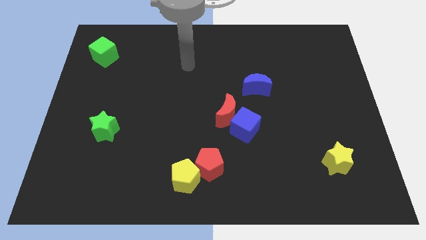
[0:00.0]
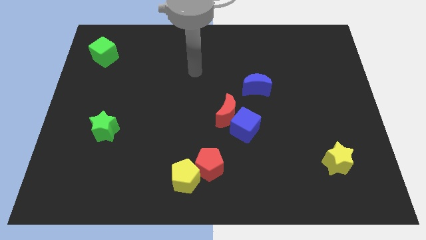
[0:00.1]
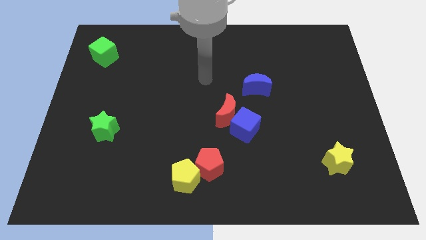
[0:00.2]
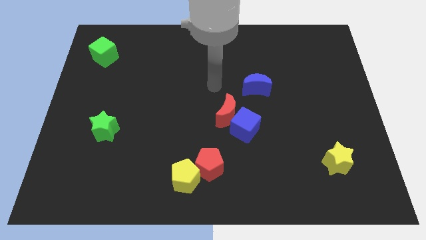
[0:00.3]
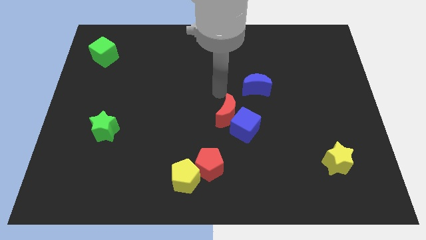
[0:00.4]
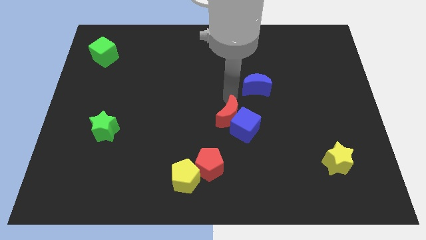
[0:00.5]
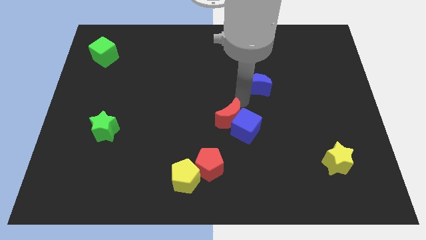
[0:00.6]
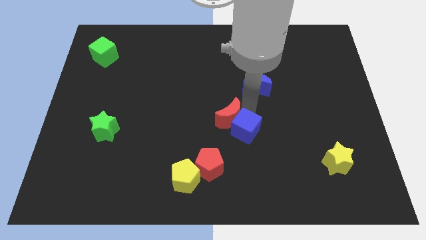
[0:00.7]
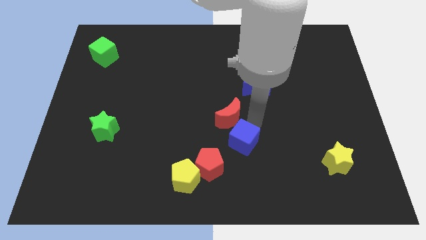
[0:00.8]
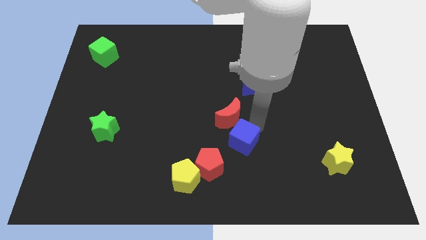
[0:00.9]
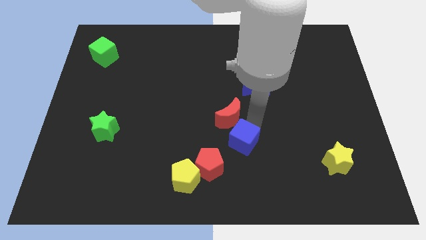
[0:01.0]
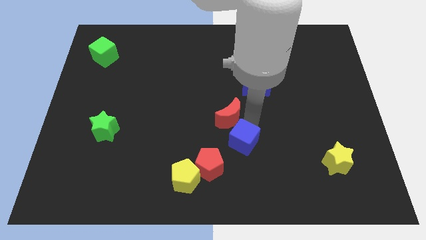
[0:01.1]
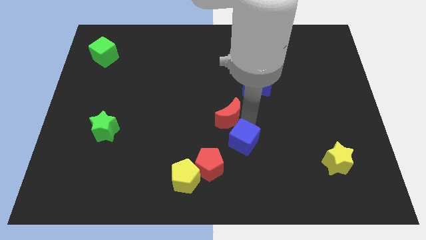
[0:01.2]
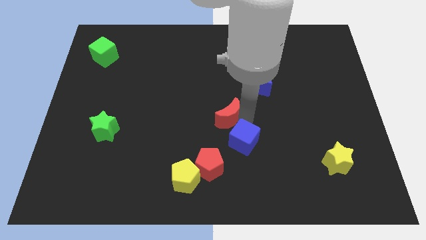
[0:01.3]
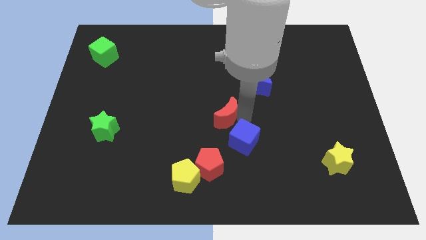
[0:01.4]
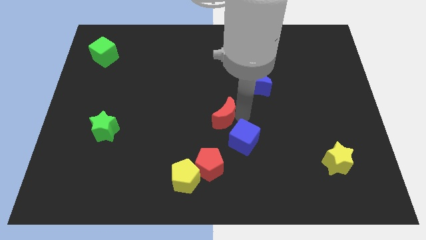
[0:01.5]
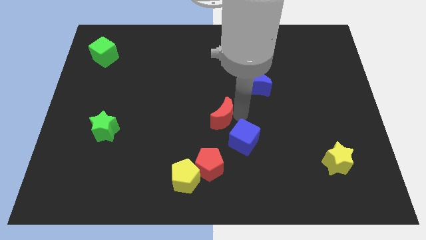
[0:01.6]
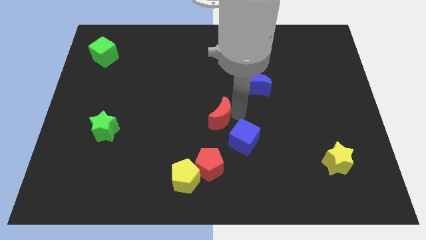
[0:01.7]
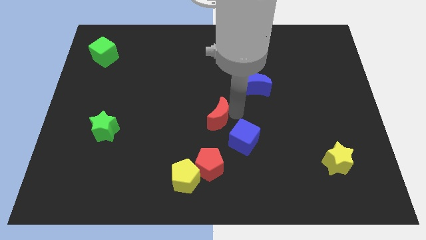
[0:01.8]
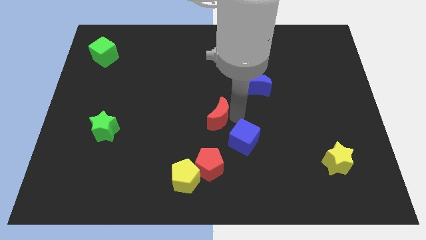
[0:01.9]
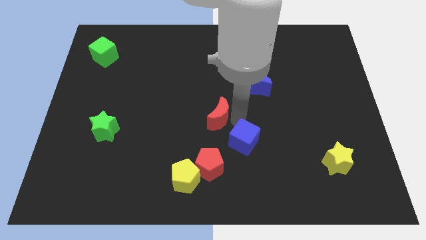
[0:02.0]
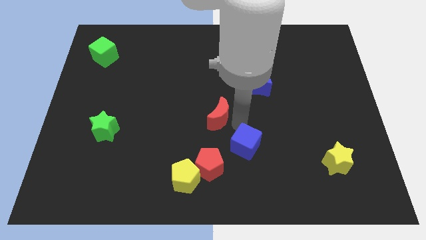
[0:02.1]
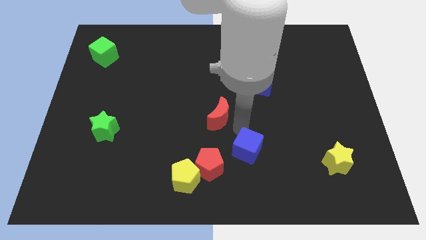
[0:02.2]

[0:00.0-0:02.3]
move the red moon away from the blue cube

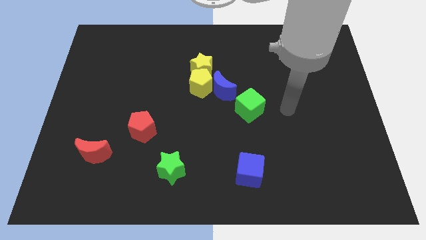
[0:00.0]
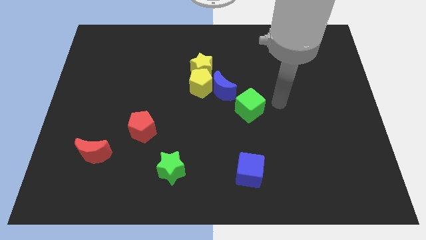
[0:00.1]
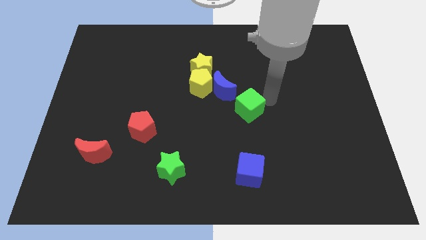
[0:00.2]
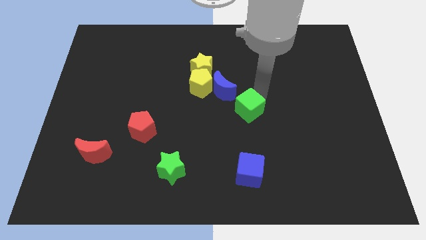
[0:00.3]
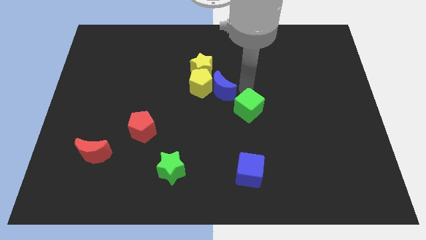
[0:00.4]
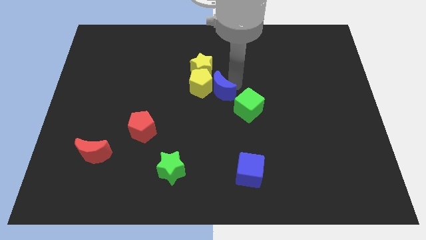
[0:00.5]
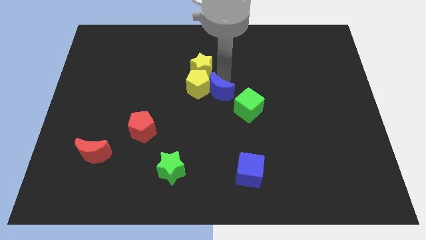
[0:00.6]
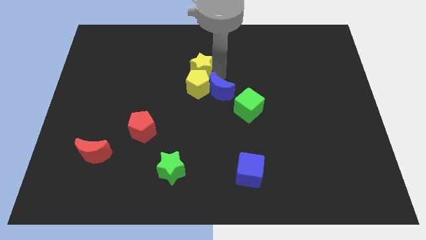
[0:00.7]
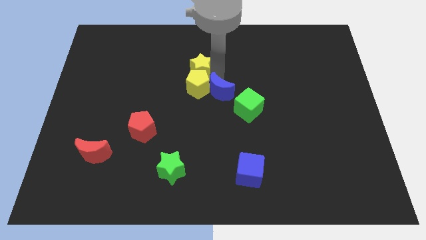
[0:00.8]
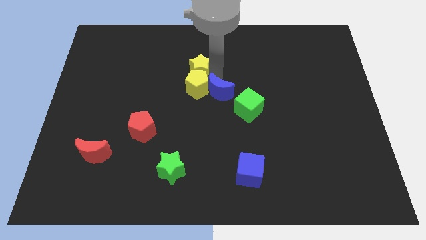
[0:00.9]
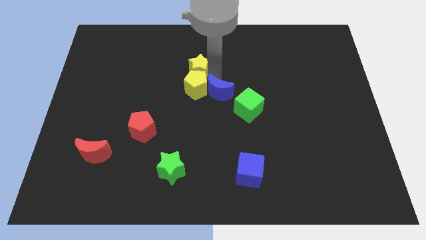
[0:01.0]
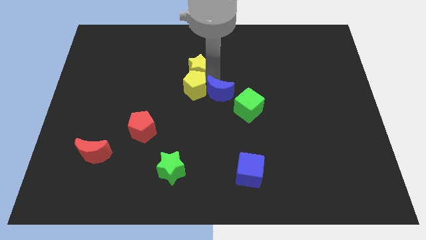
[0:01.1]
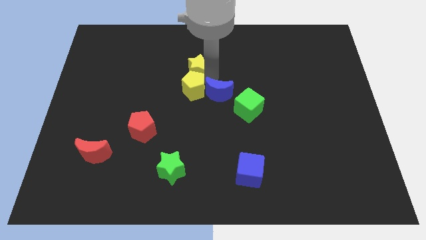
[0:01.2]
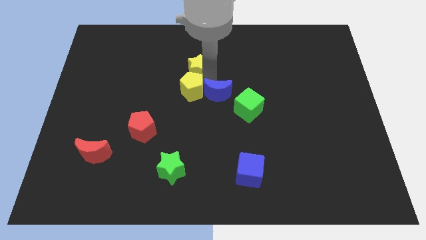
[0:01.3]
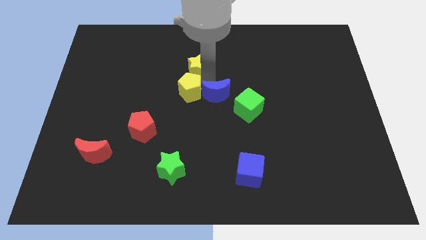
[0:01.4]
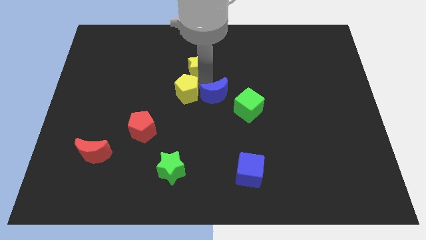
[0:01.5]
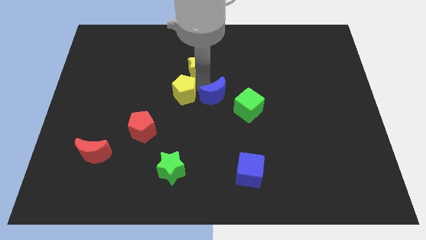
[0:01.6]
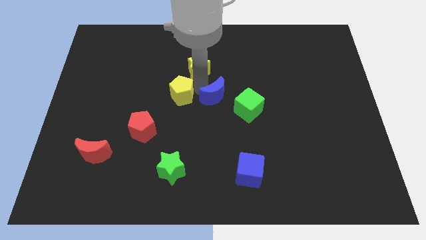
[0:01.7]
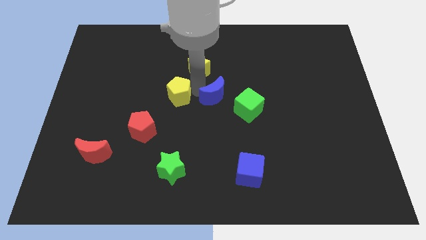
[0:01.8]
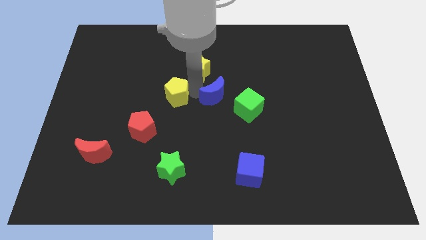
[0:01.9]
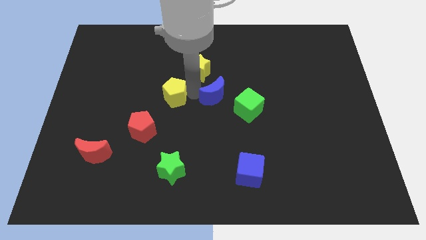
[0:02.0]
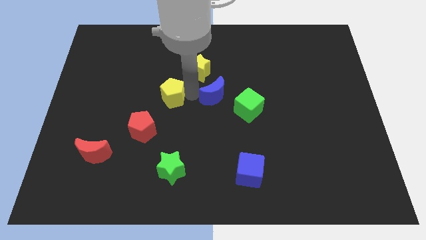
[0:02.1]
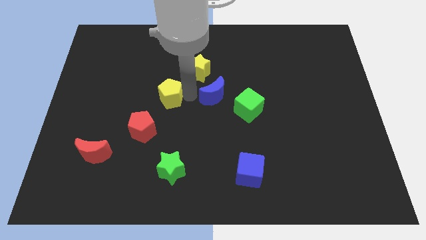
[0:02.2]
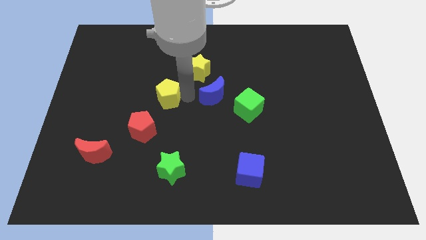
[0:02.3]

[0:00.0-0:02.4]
move the yellow pentagon away from the yellow star and blue moon

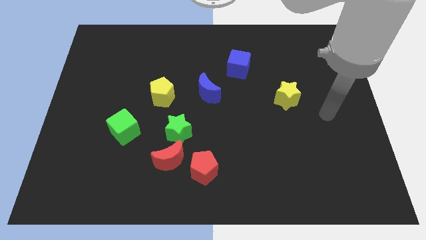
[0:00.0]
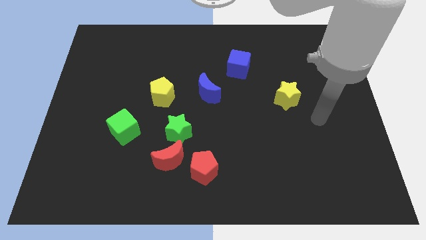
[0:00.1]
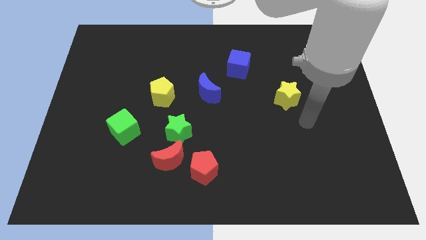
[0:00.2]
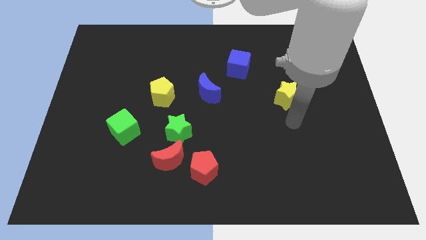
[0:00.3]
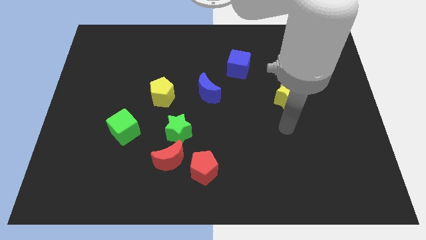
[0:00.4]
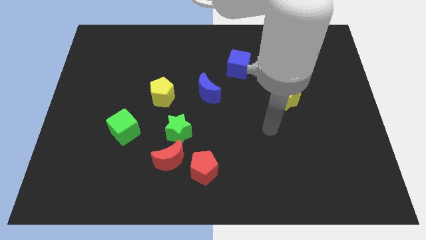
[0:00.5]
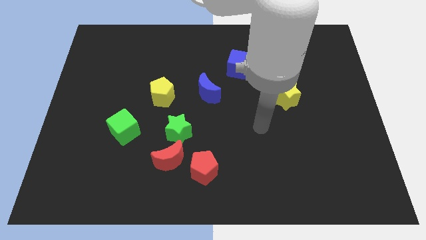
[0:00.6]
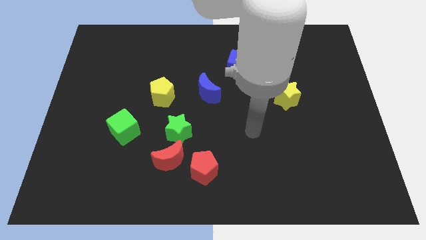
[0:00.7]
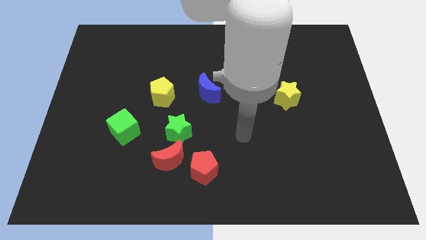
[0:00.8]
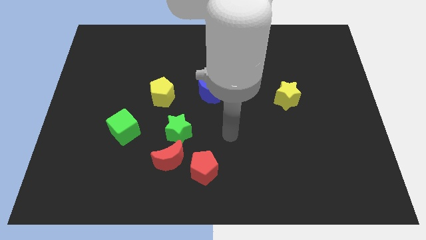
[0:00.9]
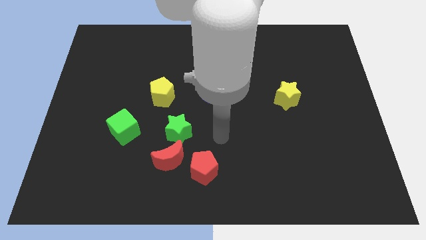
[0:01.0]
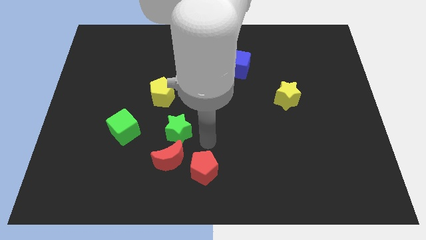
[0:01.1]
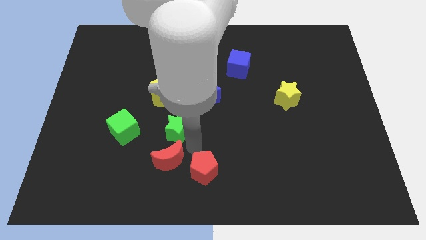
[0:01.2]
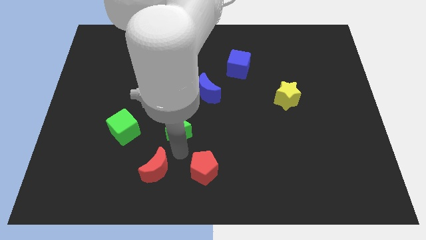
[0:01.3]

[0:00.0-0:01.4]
move the green star away from the red moon

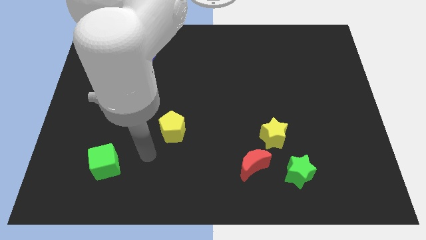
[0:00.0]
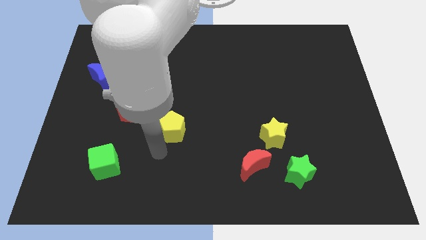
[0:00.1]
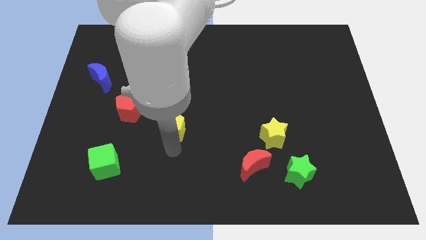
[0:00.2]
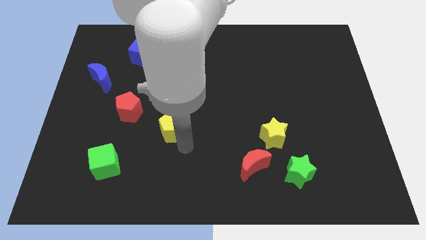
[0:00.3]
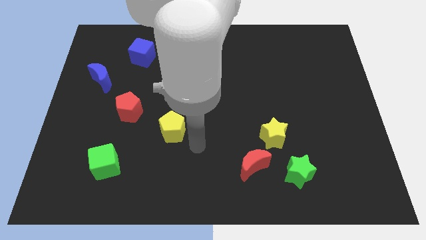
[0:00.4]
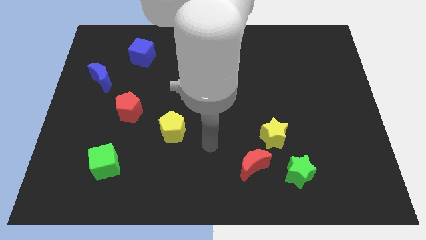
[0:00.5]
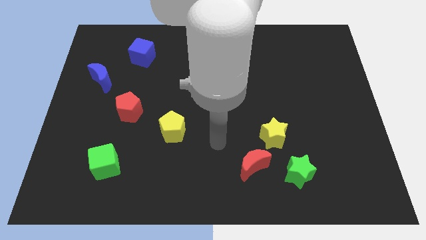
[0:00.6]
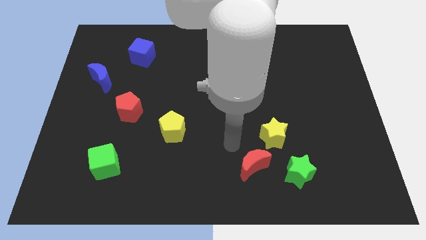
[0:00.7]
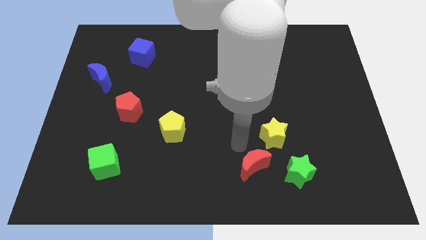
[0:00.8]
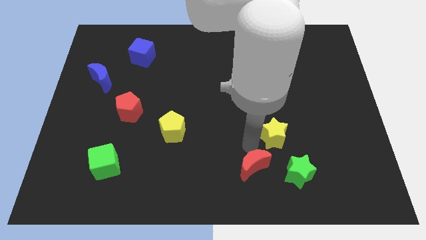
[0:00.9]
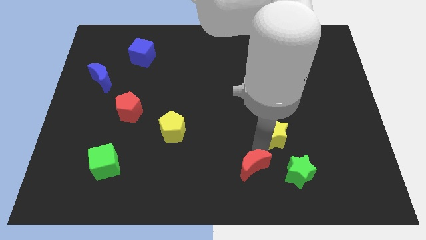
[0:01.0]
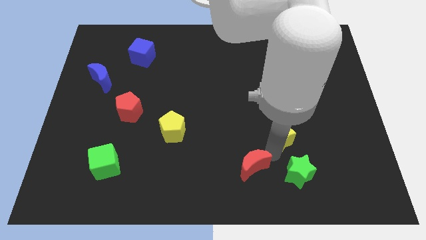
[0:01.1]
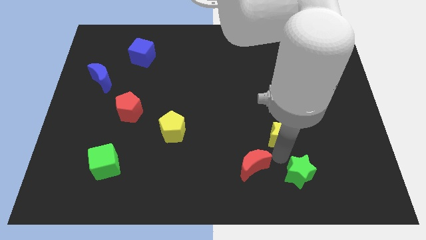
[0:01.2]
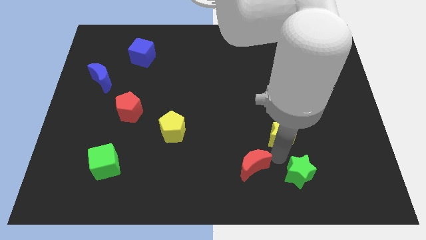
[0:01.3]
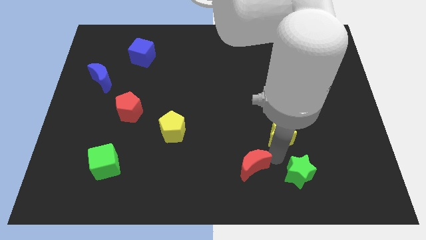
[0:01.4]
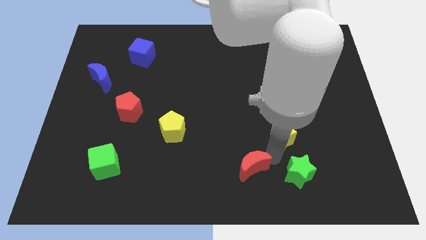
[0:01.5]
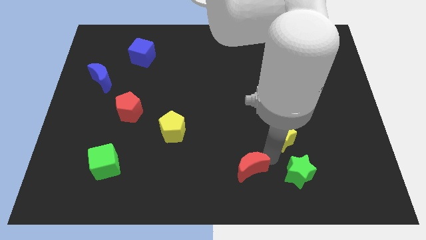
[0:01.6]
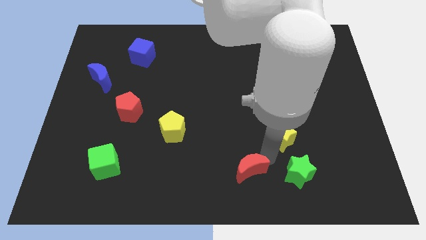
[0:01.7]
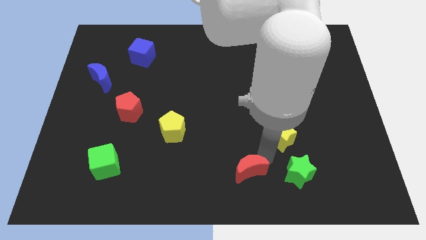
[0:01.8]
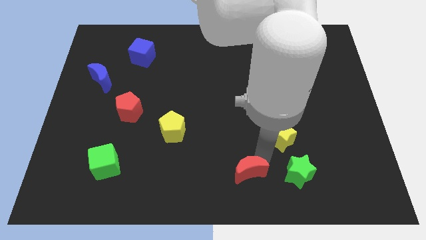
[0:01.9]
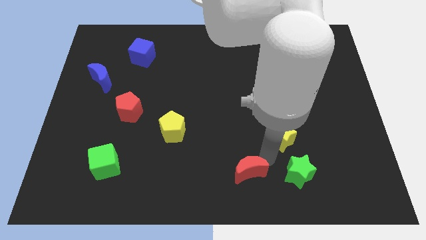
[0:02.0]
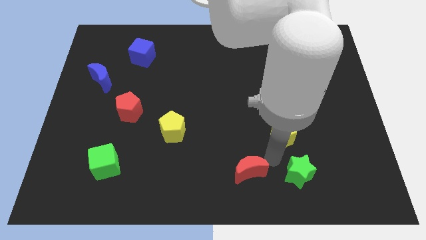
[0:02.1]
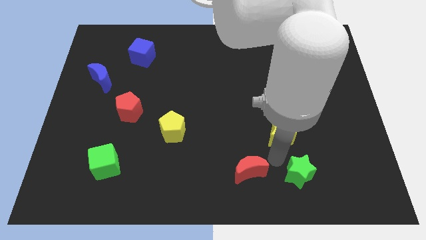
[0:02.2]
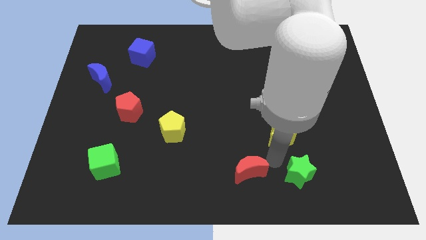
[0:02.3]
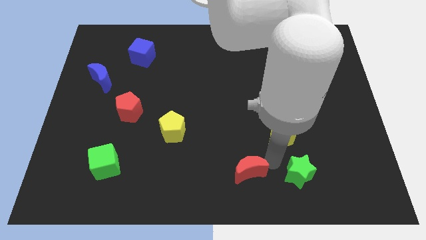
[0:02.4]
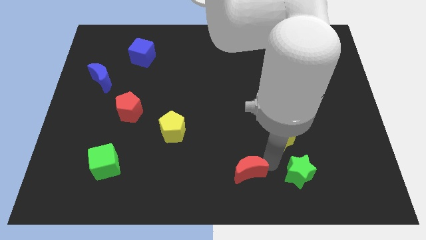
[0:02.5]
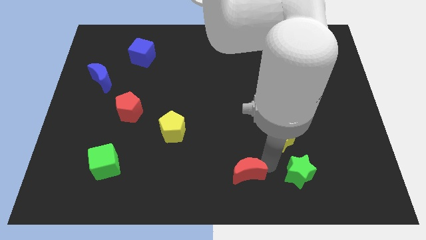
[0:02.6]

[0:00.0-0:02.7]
separate the red moon from the yellow star and green star

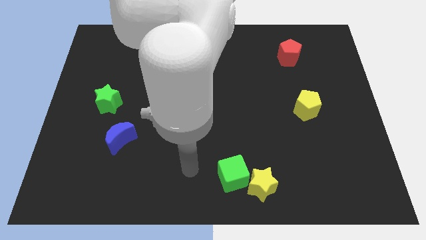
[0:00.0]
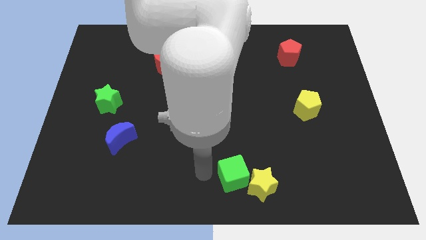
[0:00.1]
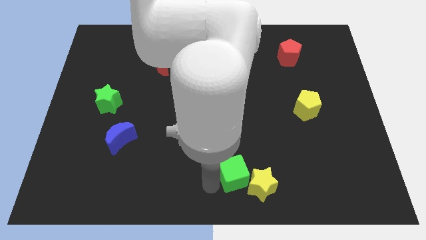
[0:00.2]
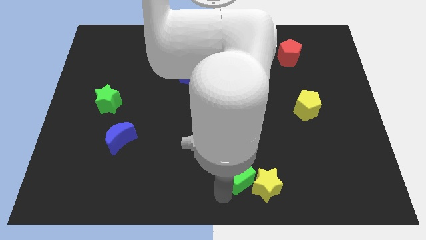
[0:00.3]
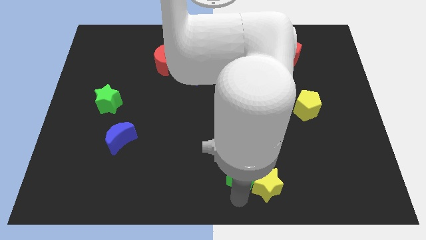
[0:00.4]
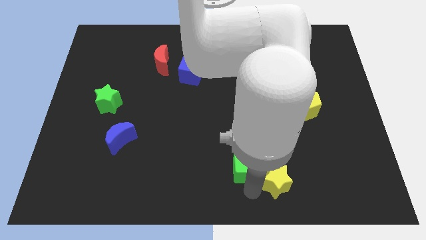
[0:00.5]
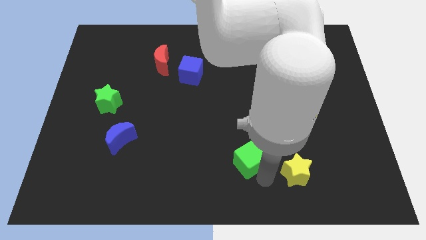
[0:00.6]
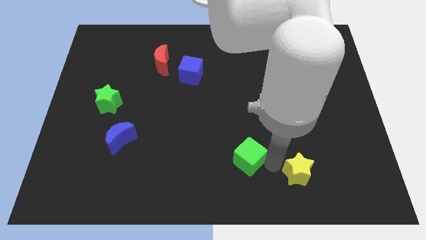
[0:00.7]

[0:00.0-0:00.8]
separate the green cube from the yellow star
